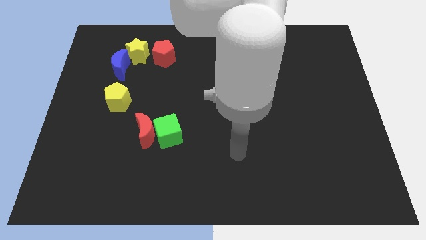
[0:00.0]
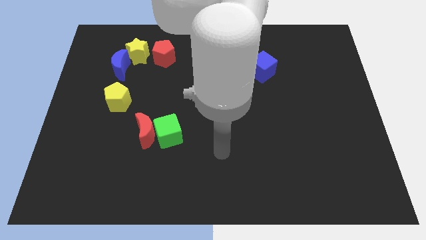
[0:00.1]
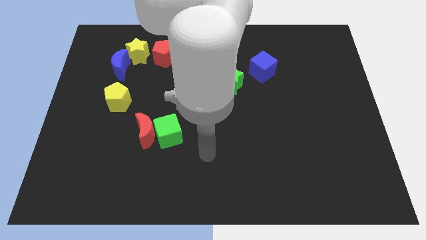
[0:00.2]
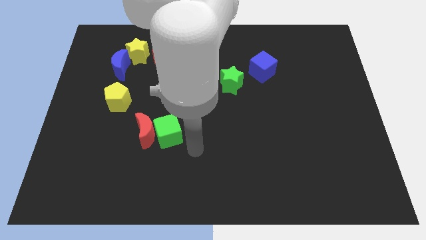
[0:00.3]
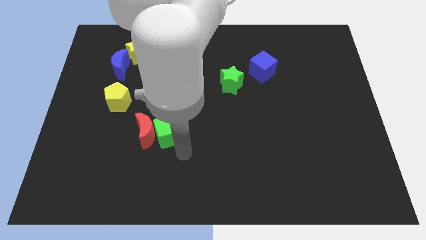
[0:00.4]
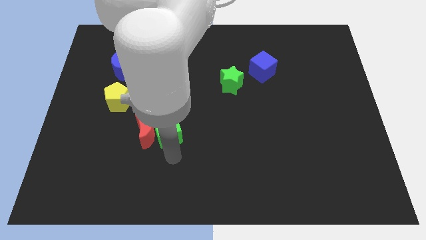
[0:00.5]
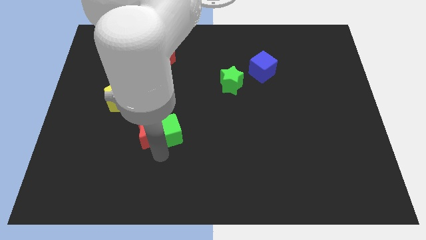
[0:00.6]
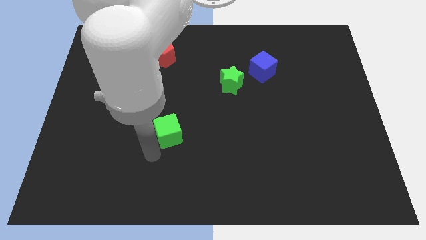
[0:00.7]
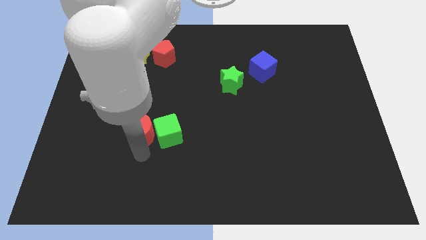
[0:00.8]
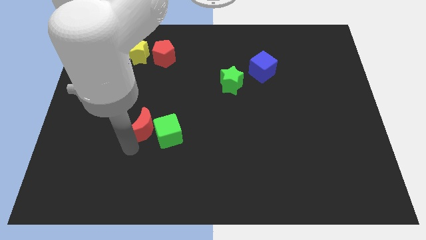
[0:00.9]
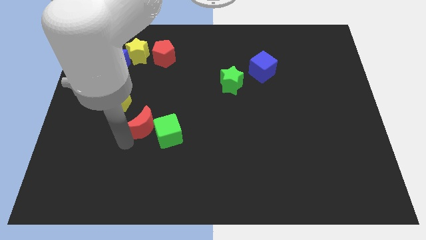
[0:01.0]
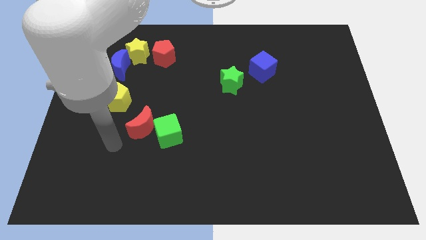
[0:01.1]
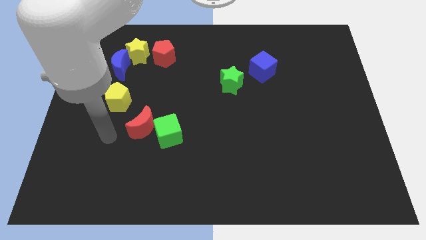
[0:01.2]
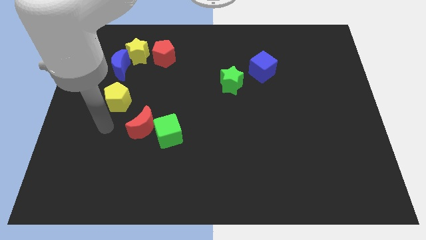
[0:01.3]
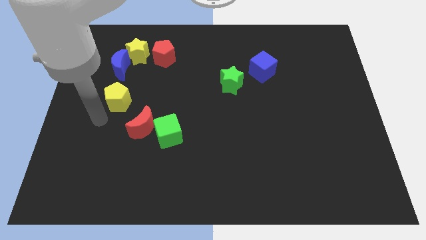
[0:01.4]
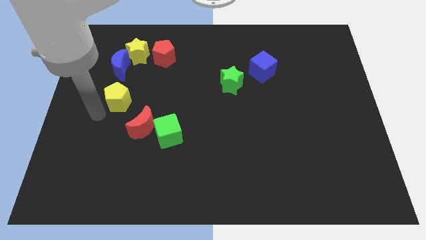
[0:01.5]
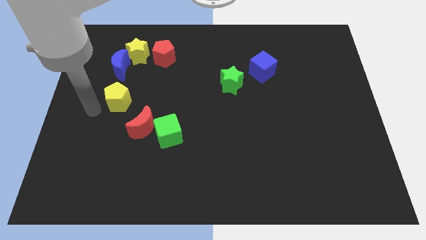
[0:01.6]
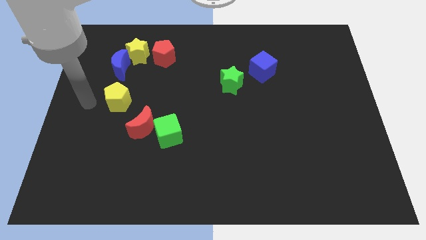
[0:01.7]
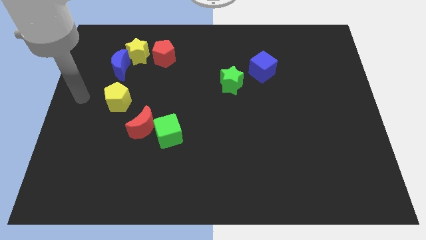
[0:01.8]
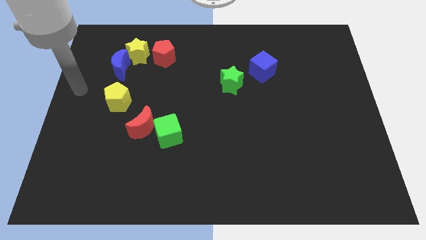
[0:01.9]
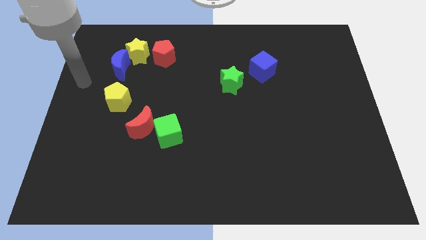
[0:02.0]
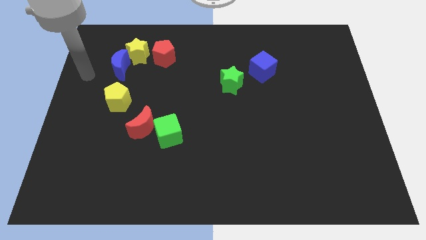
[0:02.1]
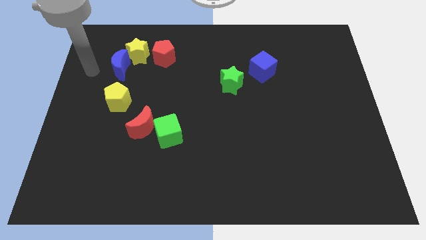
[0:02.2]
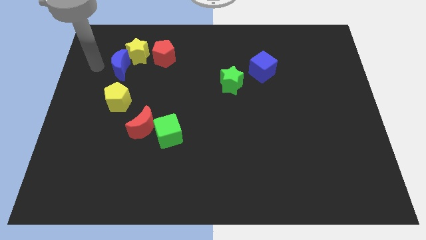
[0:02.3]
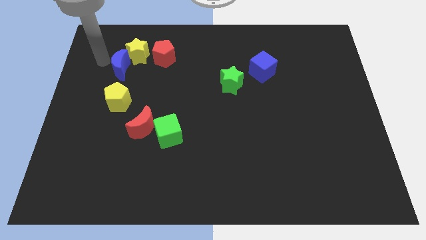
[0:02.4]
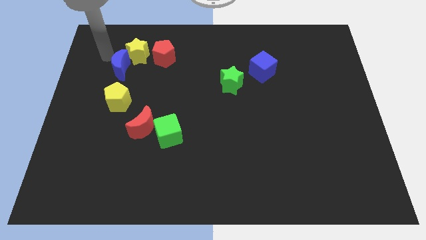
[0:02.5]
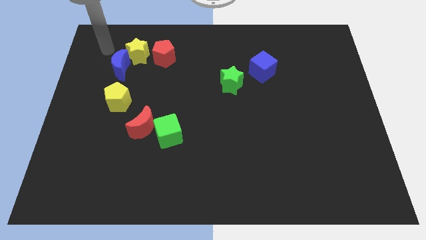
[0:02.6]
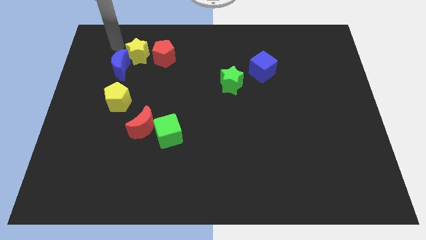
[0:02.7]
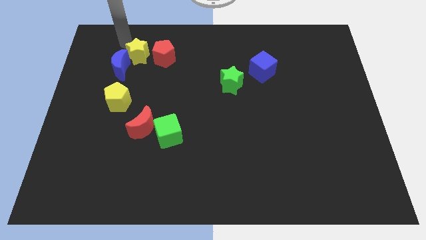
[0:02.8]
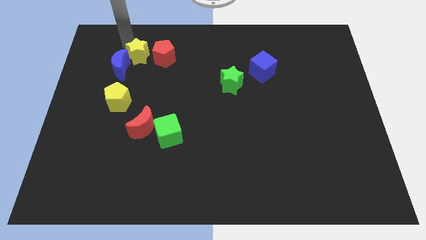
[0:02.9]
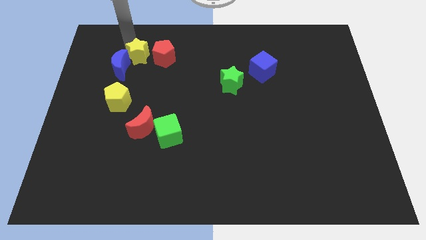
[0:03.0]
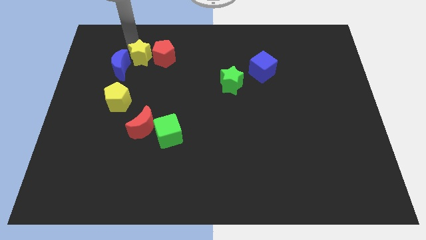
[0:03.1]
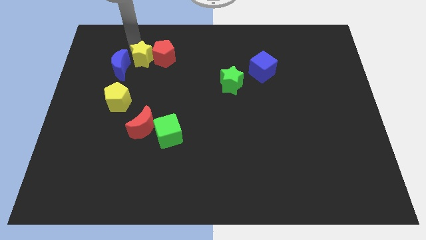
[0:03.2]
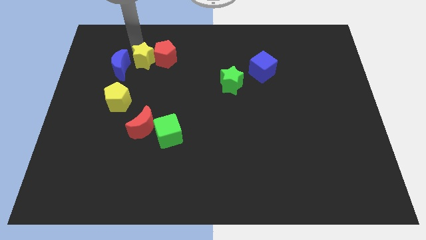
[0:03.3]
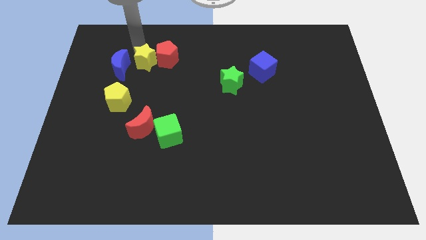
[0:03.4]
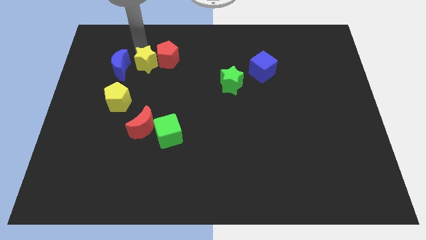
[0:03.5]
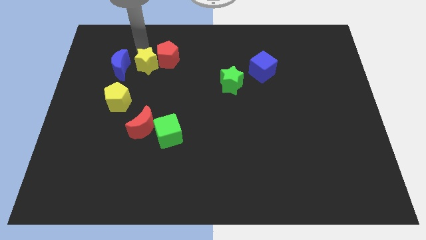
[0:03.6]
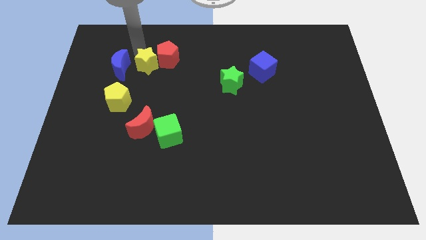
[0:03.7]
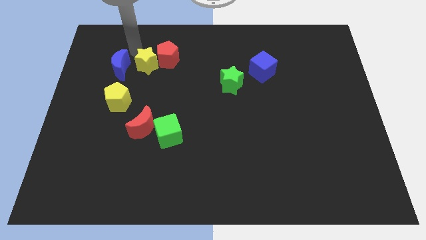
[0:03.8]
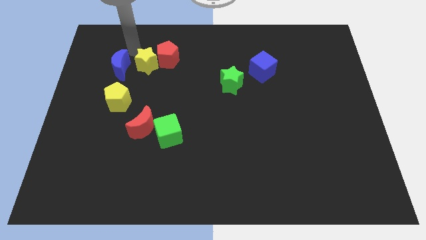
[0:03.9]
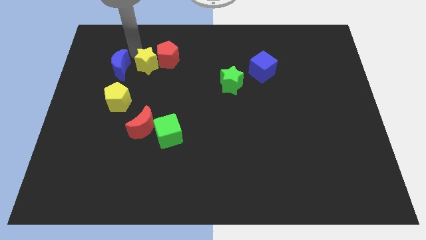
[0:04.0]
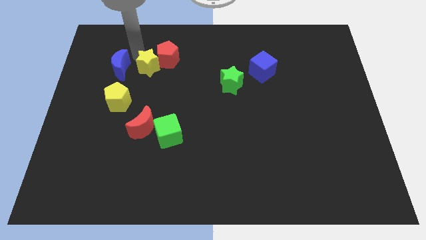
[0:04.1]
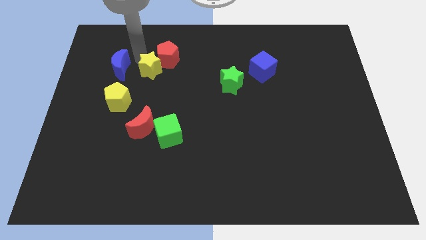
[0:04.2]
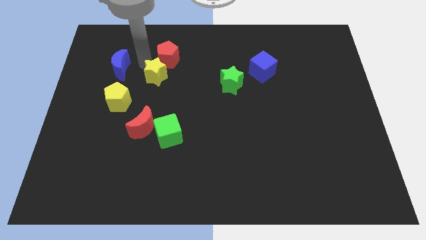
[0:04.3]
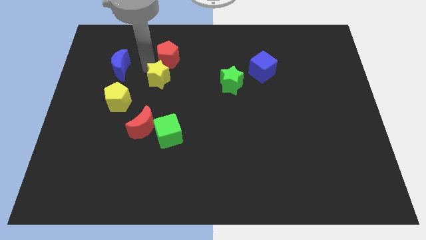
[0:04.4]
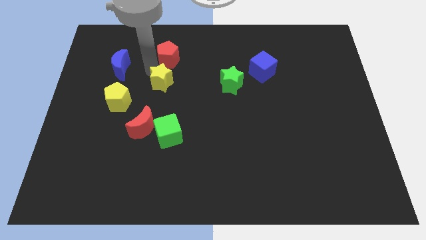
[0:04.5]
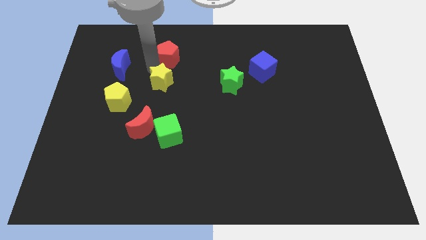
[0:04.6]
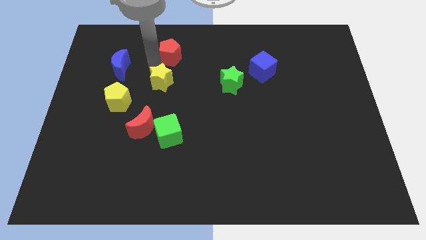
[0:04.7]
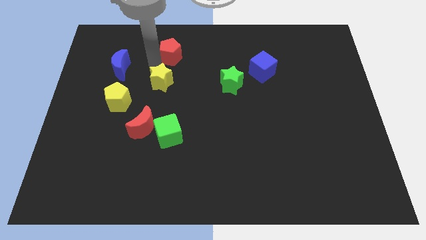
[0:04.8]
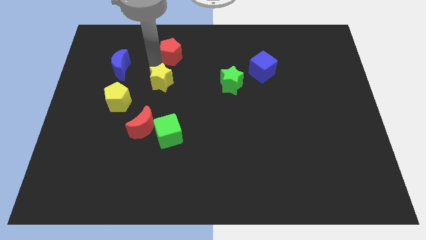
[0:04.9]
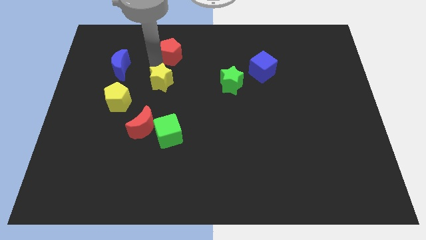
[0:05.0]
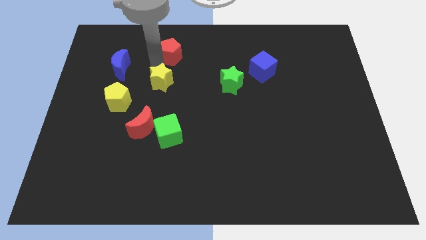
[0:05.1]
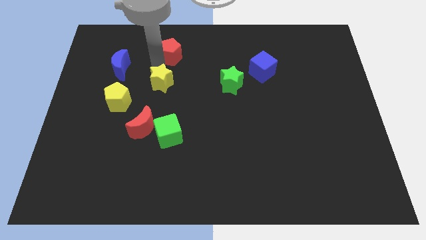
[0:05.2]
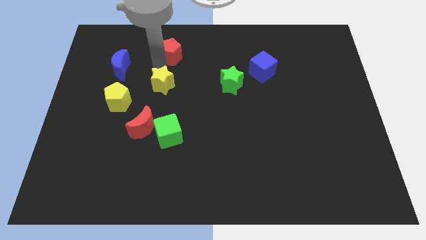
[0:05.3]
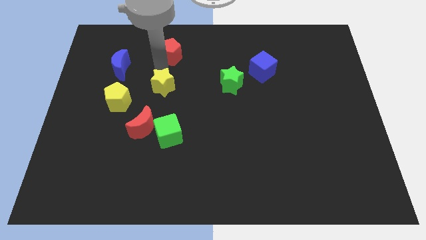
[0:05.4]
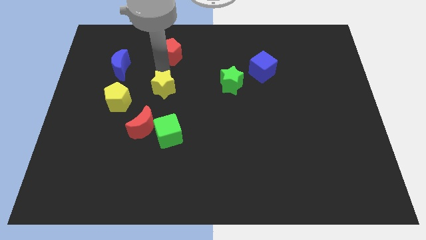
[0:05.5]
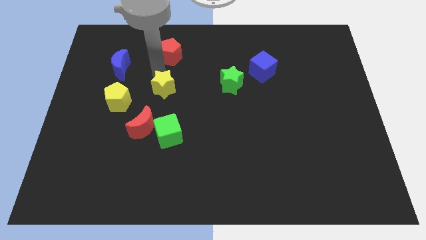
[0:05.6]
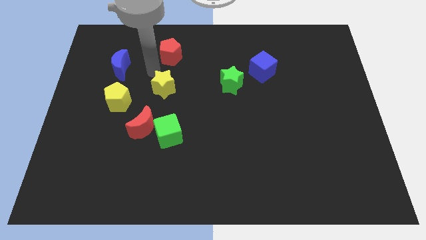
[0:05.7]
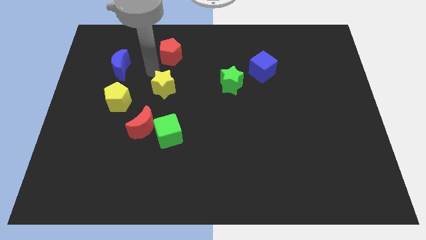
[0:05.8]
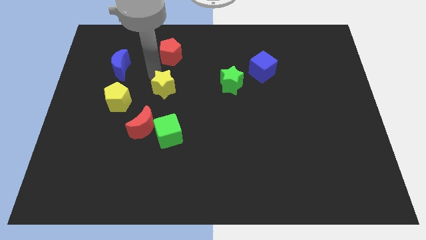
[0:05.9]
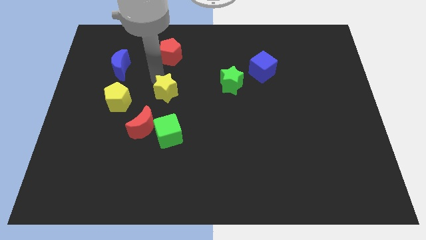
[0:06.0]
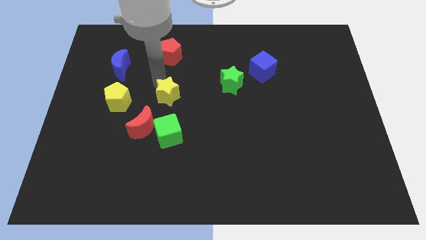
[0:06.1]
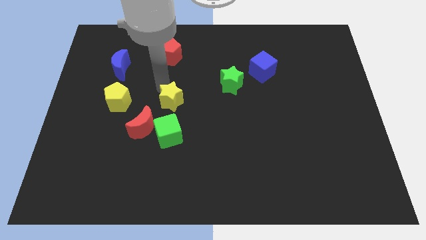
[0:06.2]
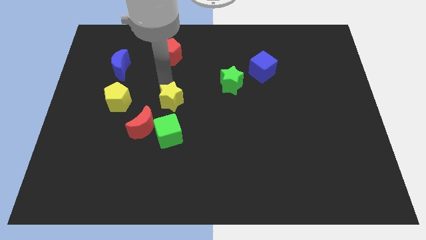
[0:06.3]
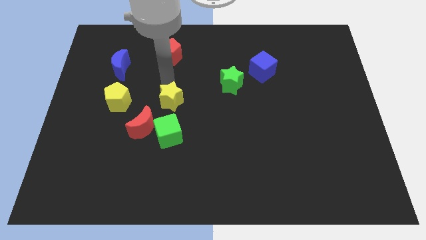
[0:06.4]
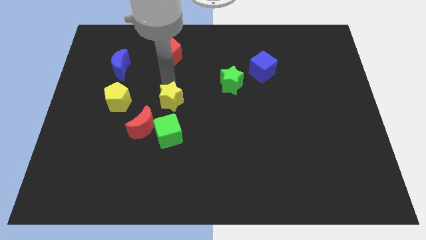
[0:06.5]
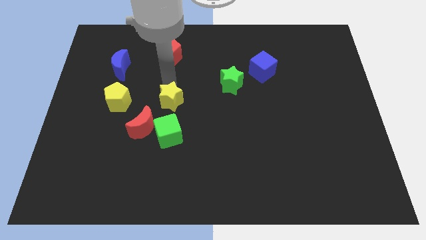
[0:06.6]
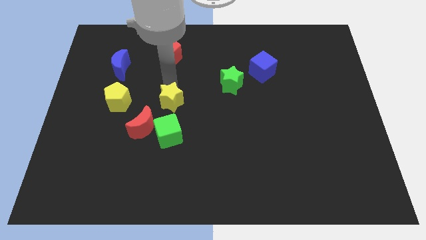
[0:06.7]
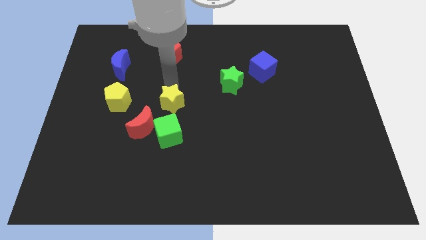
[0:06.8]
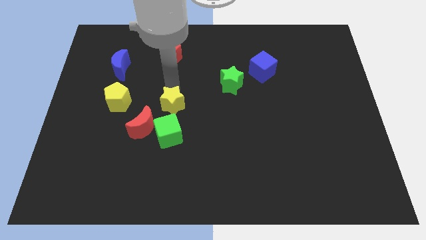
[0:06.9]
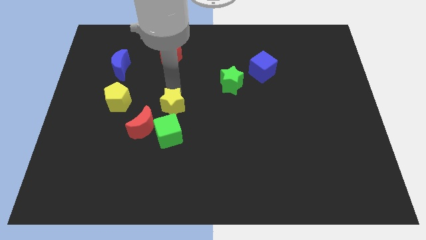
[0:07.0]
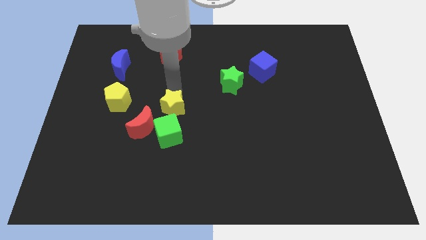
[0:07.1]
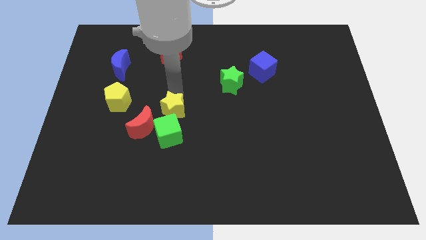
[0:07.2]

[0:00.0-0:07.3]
push the yellow star right of the red moon
